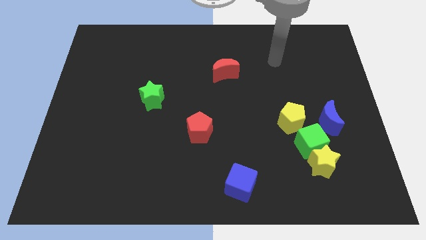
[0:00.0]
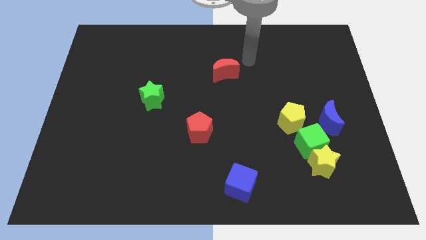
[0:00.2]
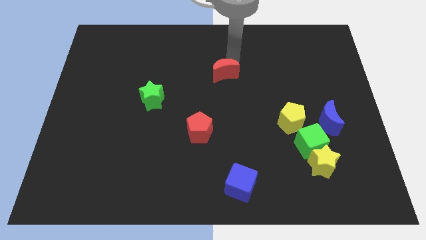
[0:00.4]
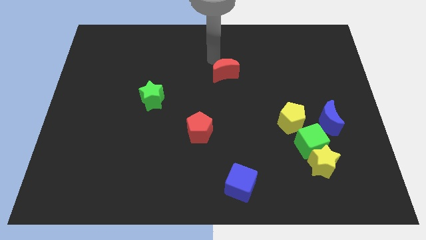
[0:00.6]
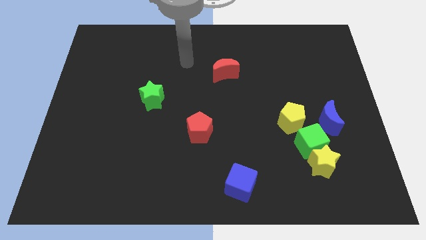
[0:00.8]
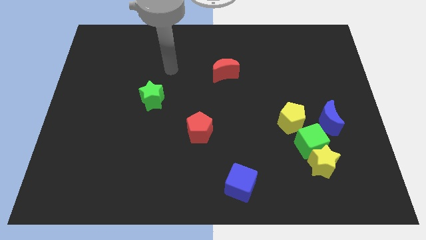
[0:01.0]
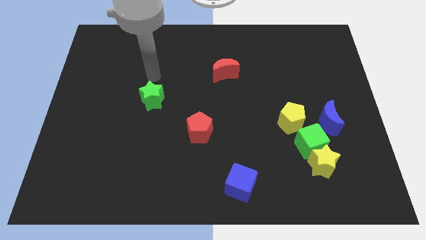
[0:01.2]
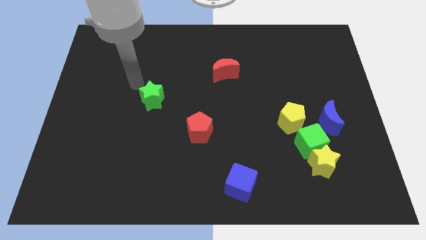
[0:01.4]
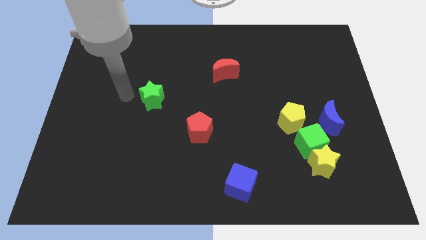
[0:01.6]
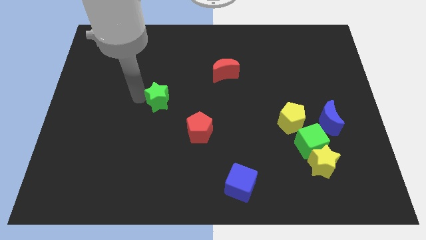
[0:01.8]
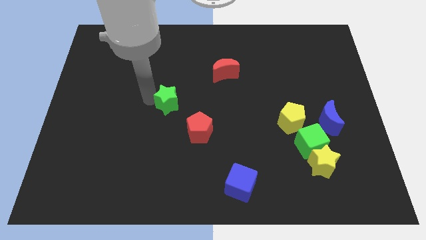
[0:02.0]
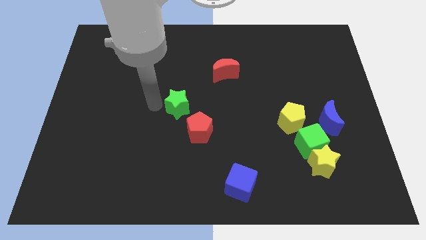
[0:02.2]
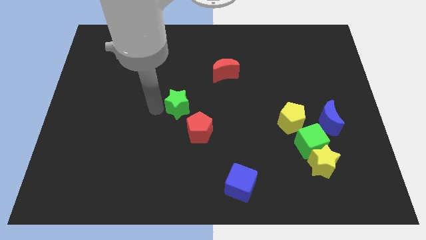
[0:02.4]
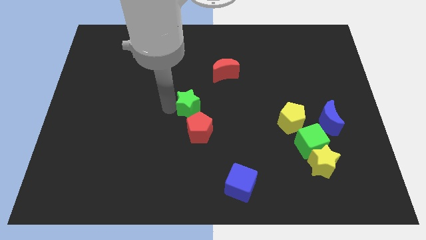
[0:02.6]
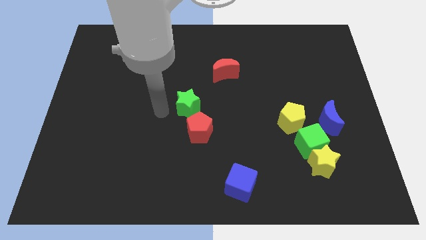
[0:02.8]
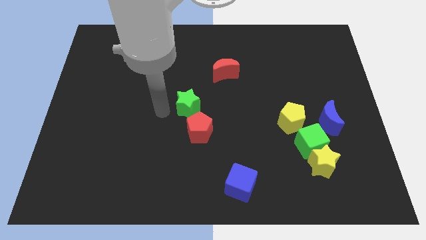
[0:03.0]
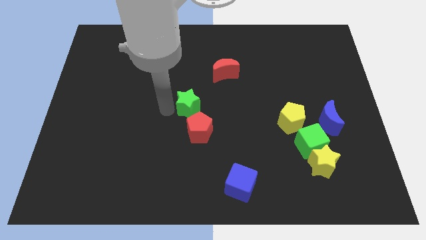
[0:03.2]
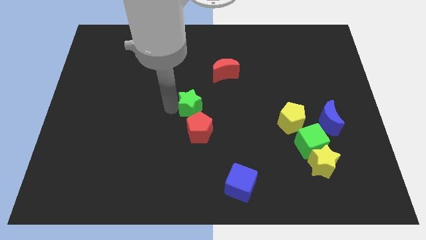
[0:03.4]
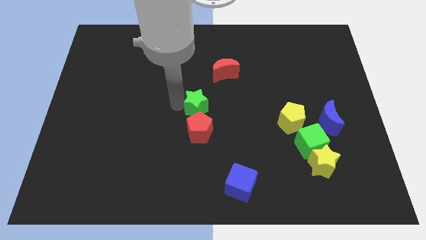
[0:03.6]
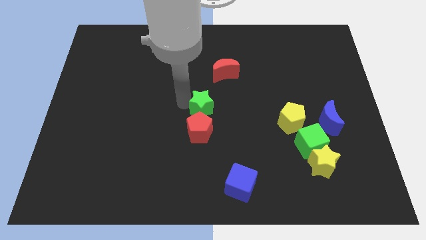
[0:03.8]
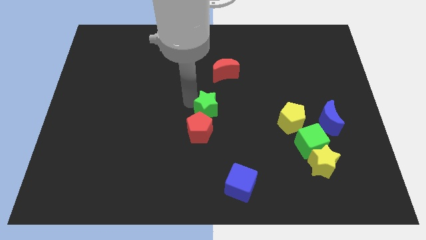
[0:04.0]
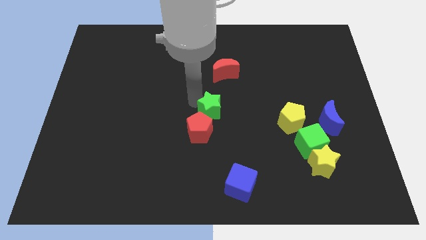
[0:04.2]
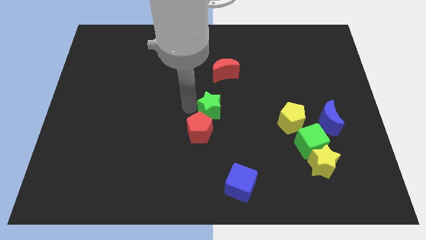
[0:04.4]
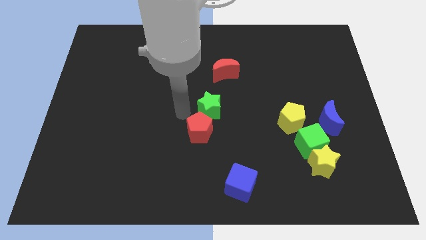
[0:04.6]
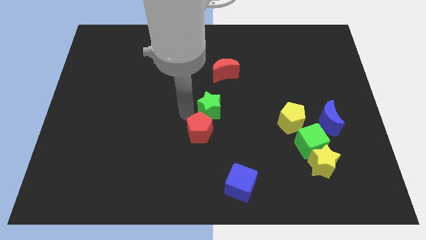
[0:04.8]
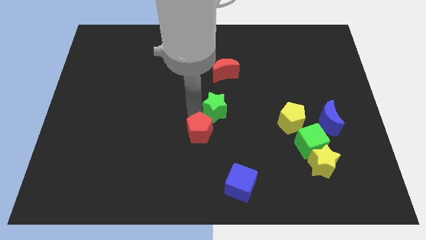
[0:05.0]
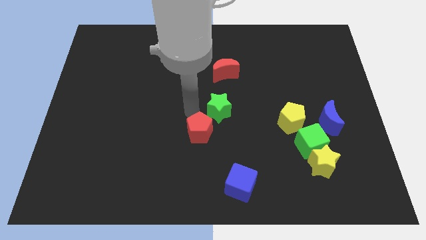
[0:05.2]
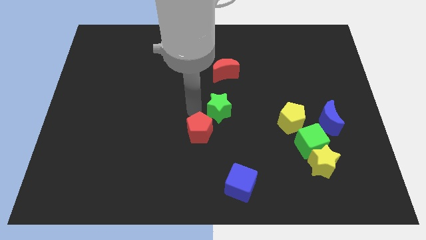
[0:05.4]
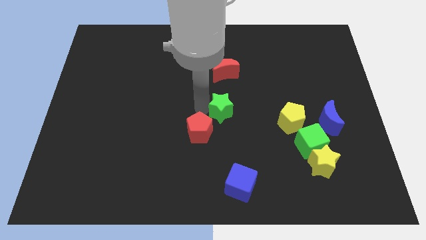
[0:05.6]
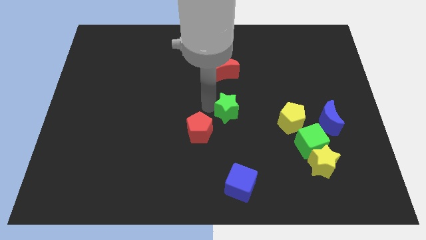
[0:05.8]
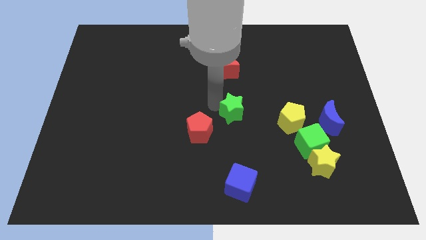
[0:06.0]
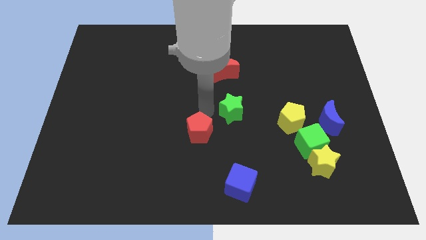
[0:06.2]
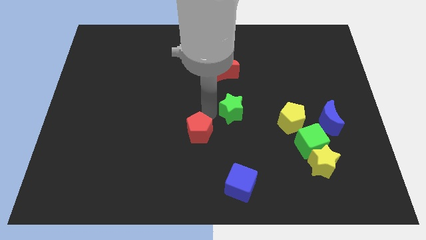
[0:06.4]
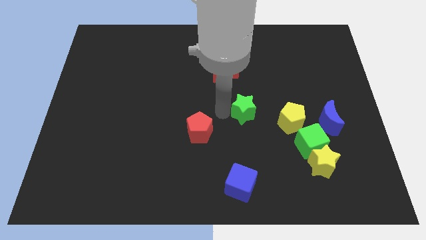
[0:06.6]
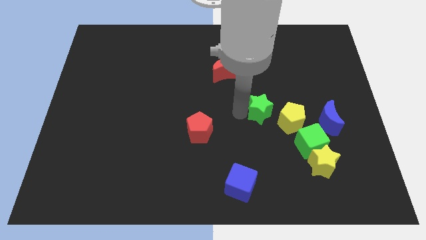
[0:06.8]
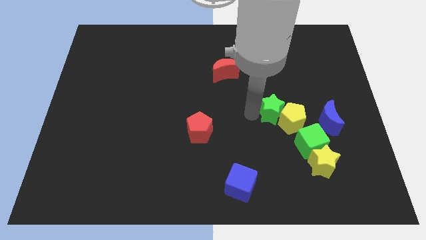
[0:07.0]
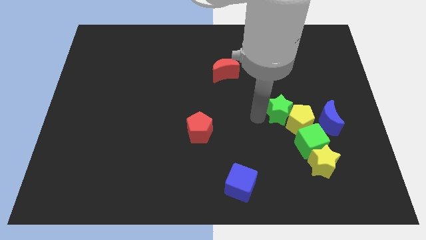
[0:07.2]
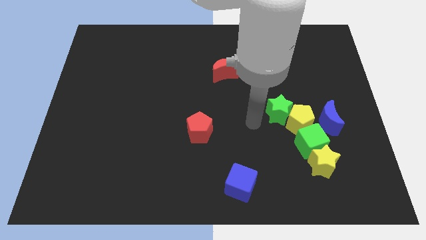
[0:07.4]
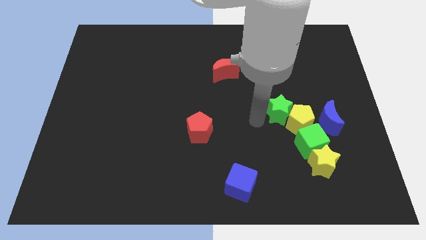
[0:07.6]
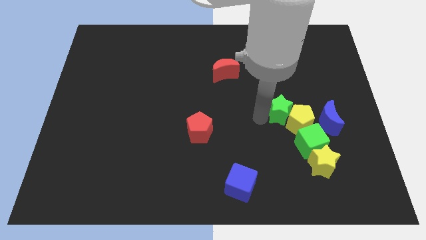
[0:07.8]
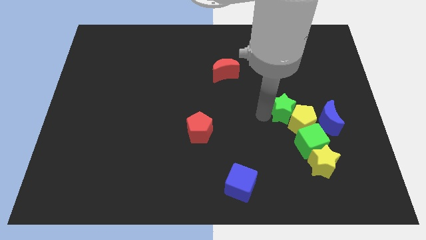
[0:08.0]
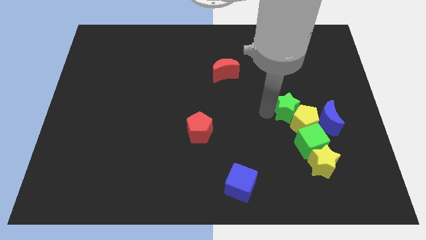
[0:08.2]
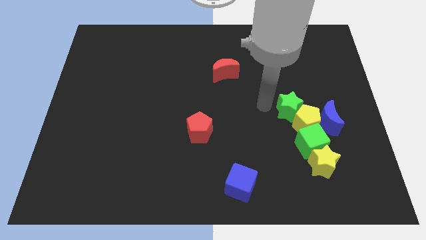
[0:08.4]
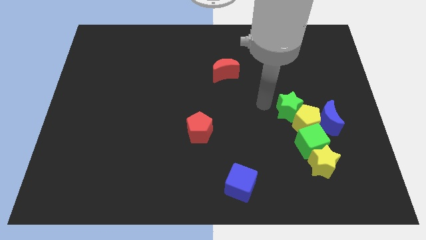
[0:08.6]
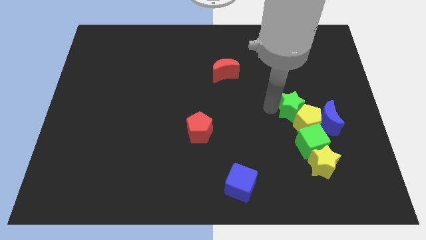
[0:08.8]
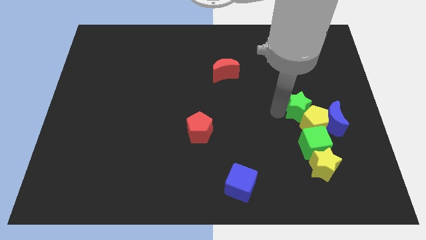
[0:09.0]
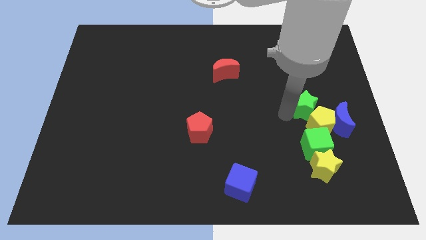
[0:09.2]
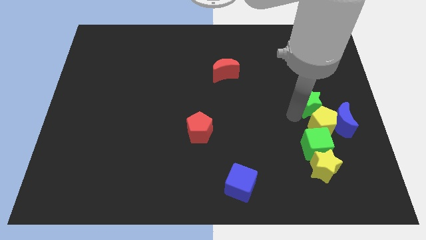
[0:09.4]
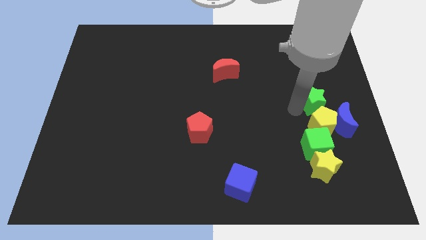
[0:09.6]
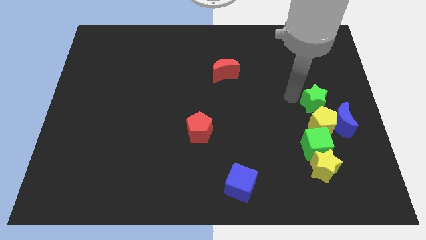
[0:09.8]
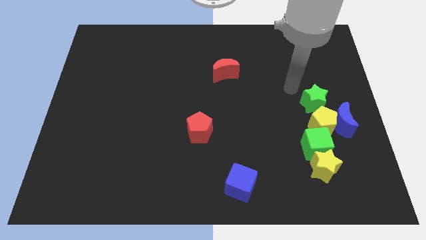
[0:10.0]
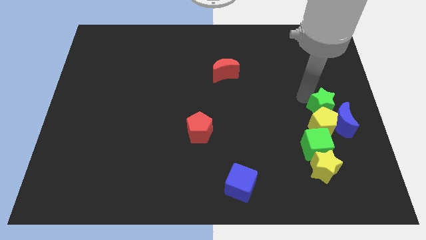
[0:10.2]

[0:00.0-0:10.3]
slide the green star next to the blue moon

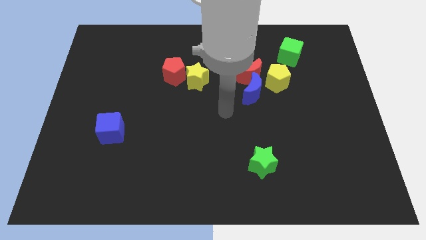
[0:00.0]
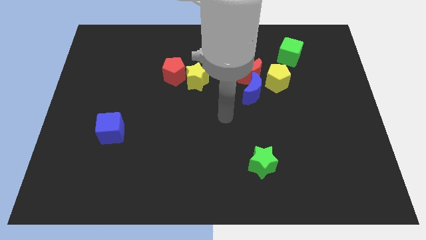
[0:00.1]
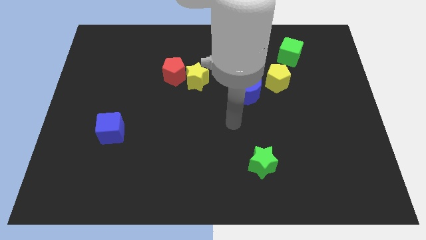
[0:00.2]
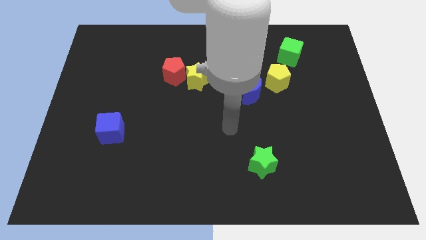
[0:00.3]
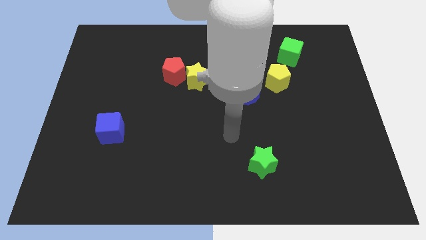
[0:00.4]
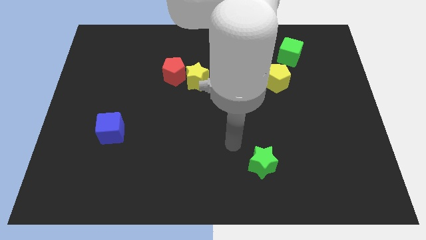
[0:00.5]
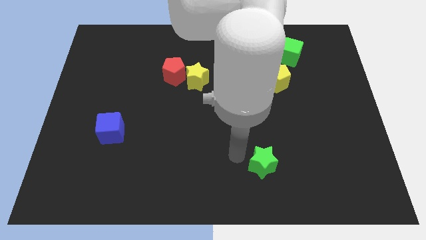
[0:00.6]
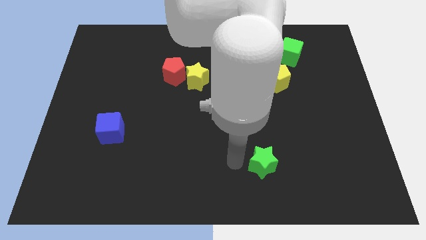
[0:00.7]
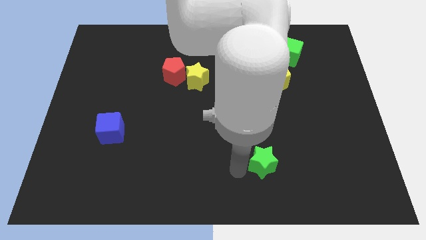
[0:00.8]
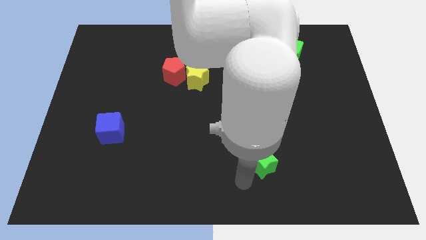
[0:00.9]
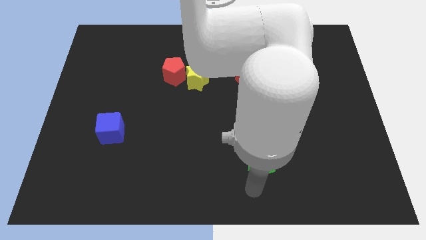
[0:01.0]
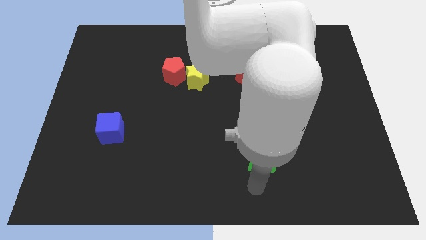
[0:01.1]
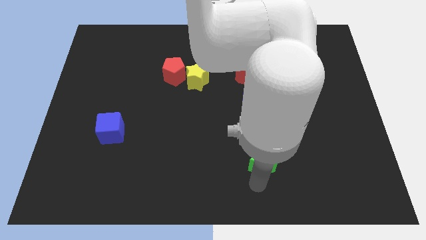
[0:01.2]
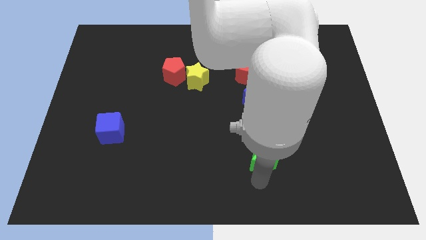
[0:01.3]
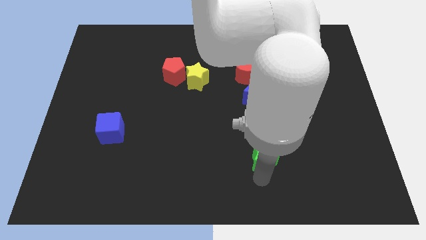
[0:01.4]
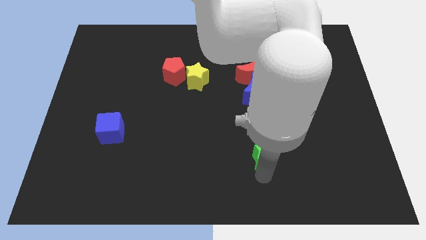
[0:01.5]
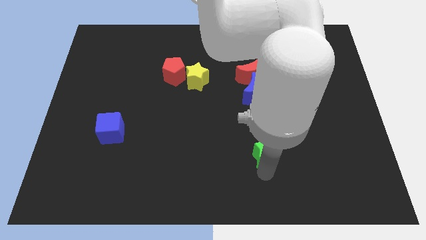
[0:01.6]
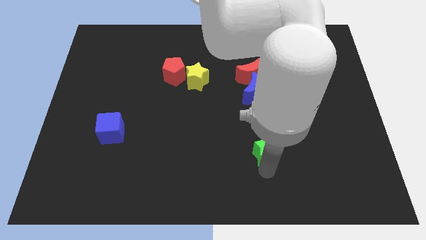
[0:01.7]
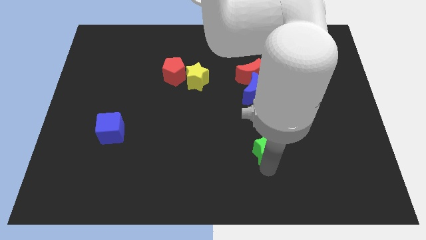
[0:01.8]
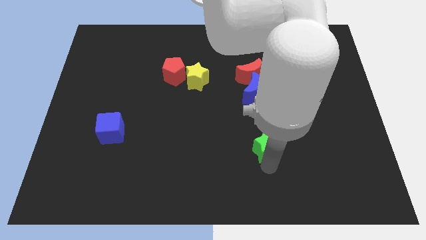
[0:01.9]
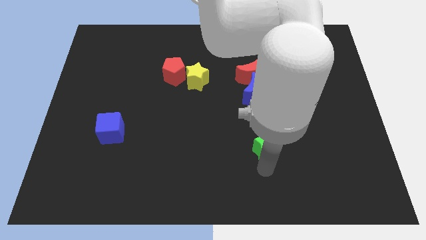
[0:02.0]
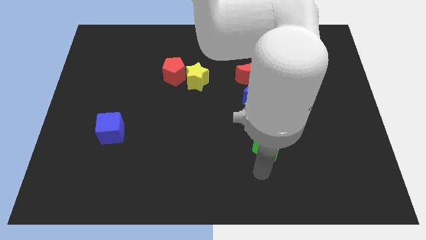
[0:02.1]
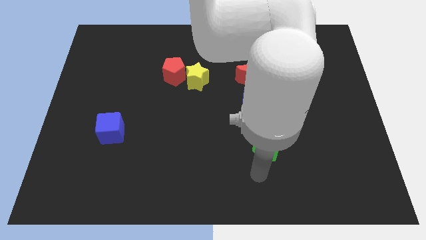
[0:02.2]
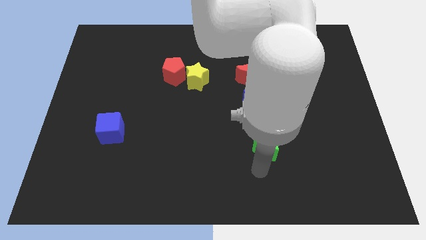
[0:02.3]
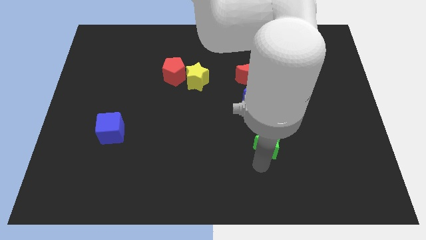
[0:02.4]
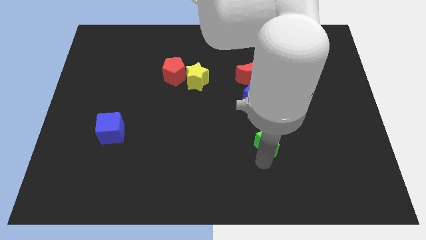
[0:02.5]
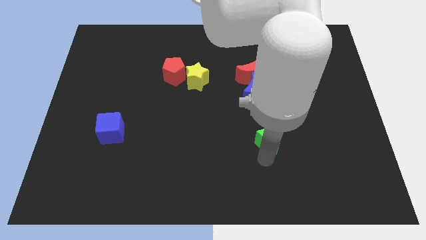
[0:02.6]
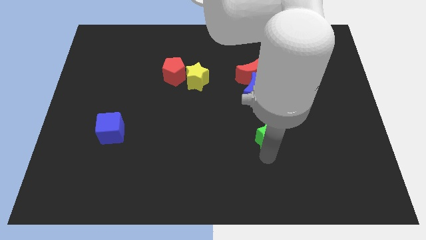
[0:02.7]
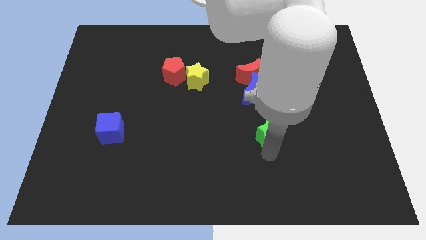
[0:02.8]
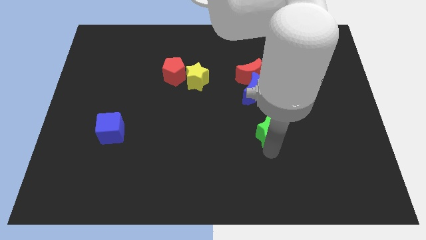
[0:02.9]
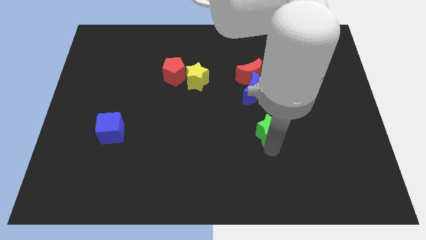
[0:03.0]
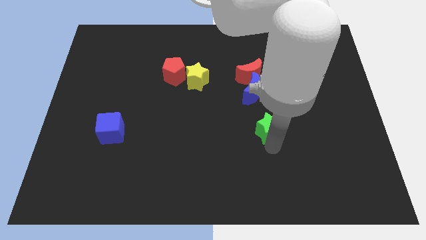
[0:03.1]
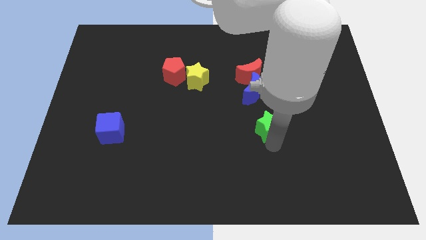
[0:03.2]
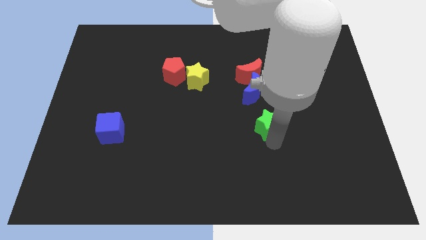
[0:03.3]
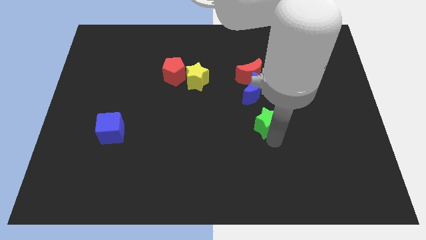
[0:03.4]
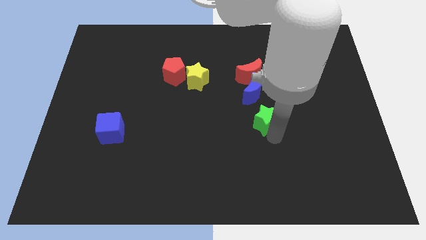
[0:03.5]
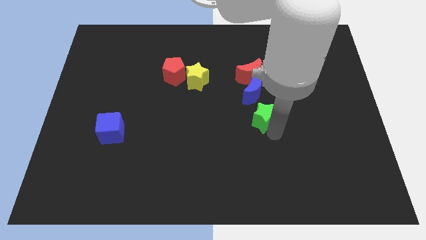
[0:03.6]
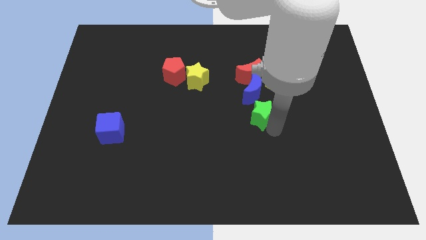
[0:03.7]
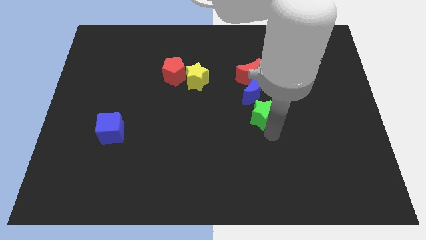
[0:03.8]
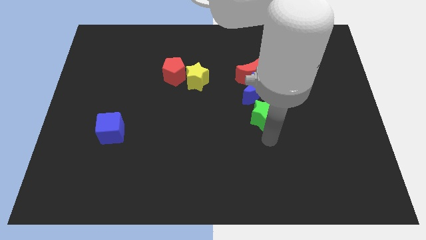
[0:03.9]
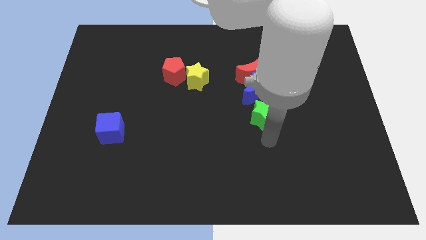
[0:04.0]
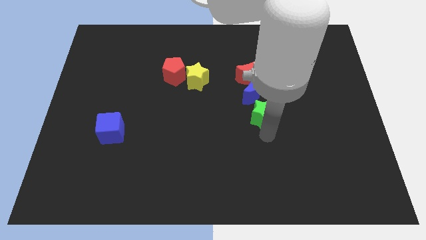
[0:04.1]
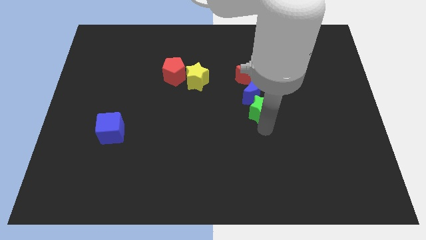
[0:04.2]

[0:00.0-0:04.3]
slide the green star close to the blue moon
